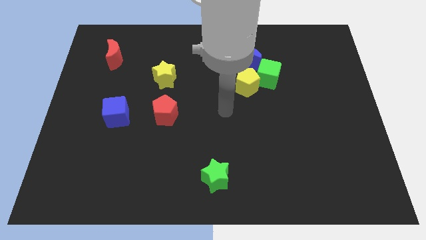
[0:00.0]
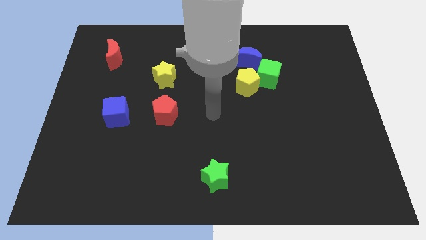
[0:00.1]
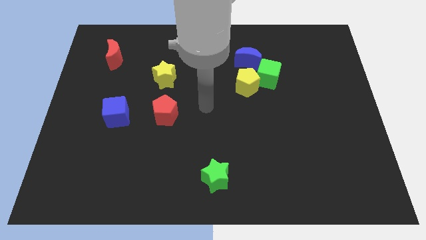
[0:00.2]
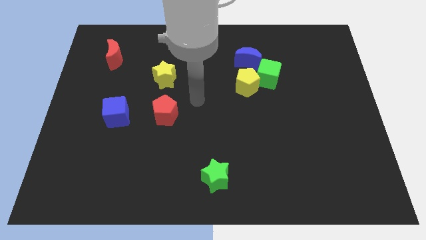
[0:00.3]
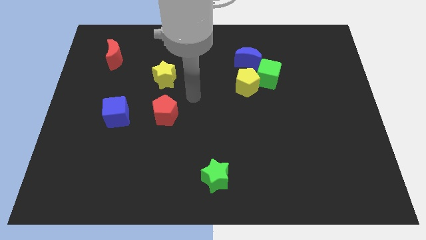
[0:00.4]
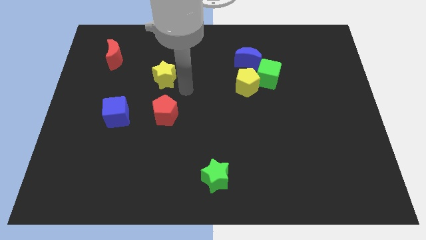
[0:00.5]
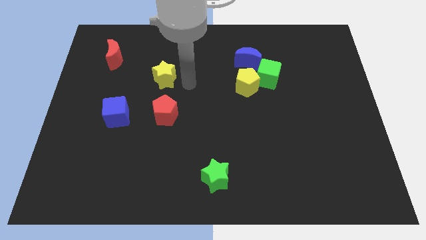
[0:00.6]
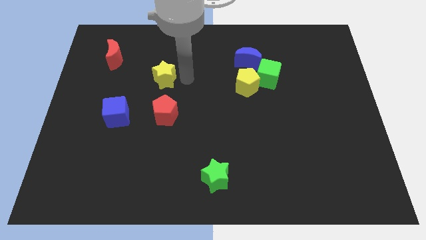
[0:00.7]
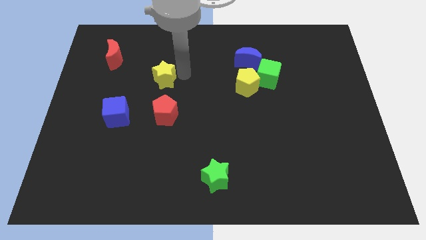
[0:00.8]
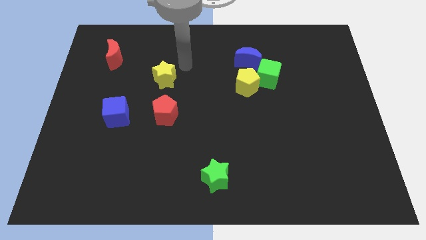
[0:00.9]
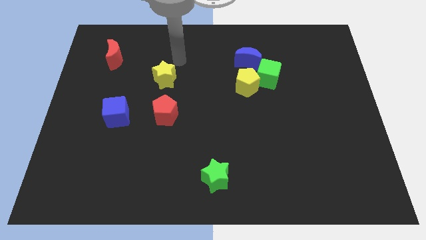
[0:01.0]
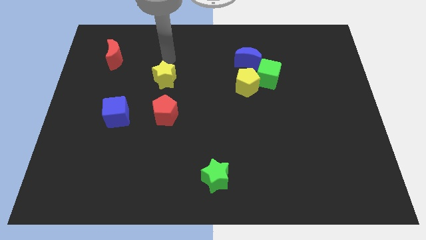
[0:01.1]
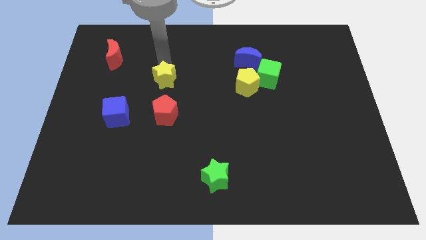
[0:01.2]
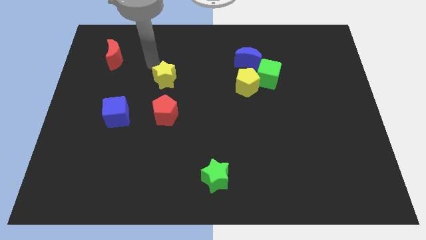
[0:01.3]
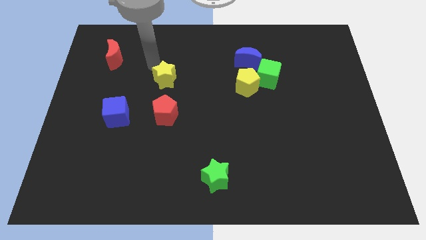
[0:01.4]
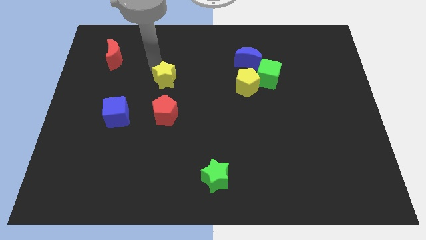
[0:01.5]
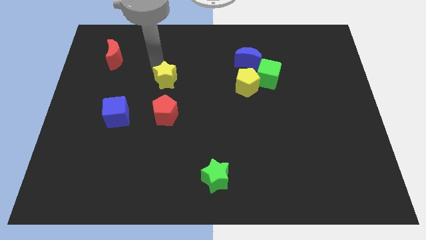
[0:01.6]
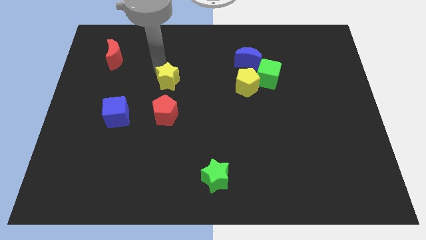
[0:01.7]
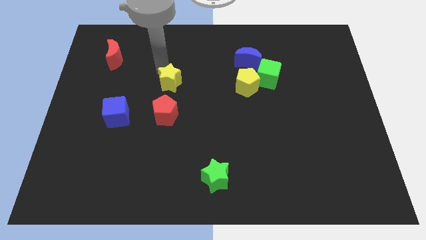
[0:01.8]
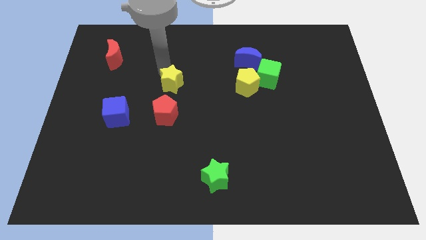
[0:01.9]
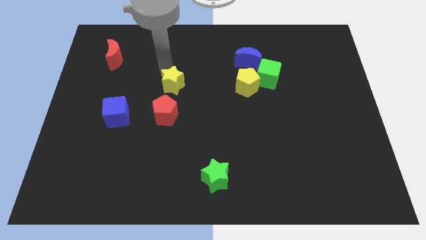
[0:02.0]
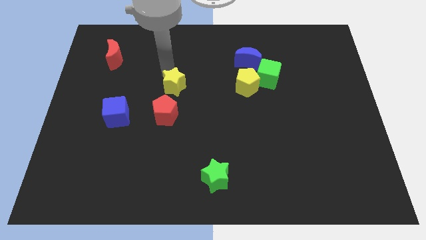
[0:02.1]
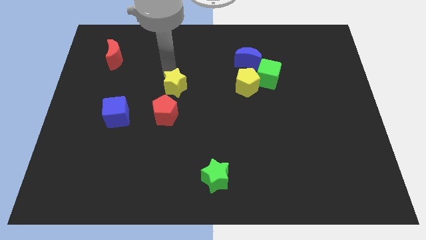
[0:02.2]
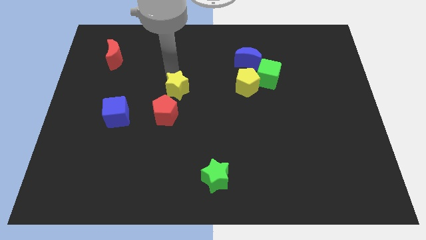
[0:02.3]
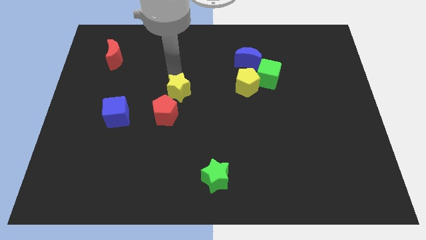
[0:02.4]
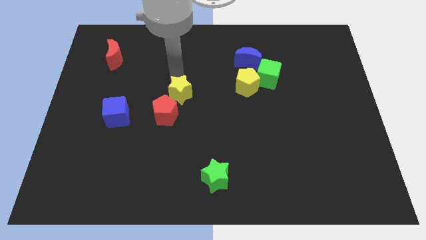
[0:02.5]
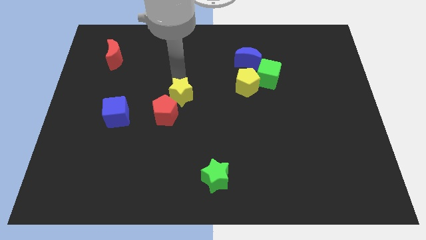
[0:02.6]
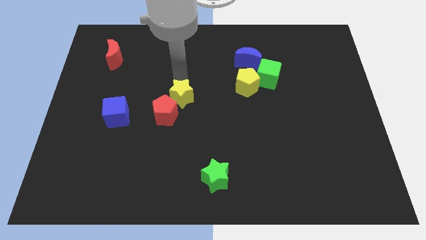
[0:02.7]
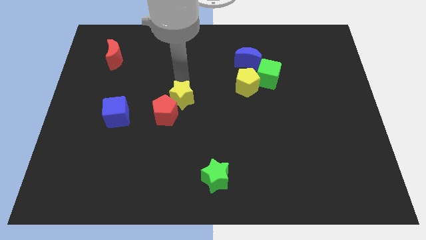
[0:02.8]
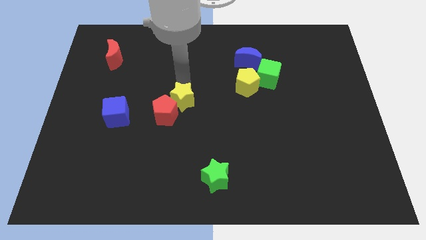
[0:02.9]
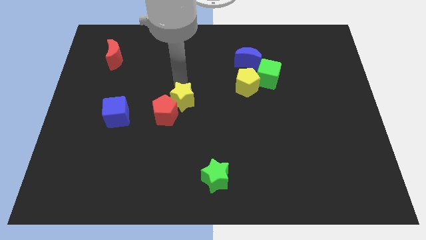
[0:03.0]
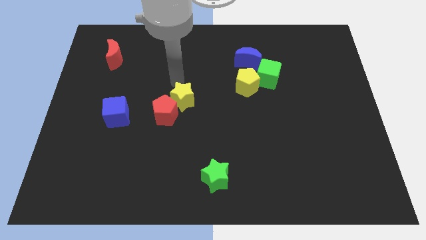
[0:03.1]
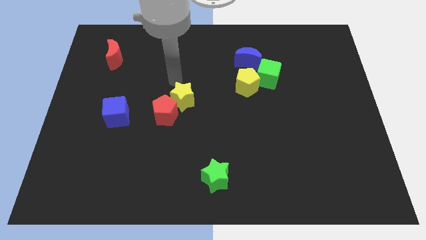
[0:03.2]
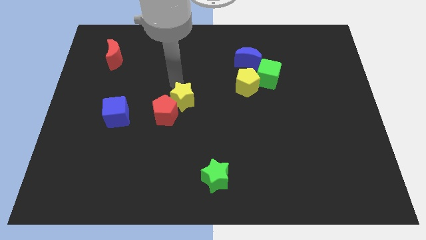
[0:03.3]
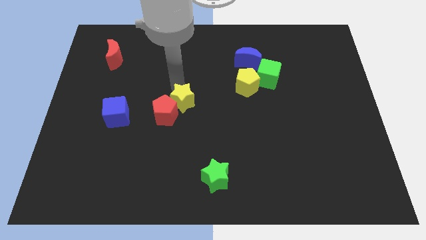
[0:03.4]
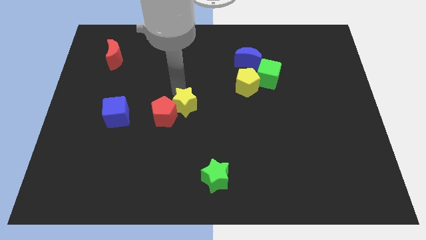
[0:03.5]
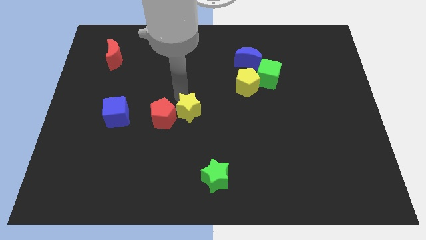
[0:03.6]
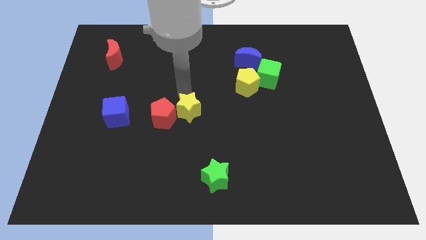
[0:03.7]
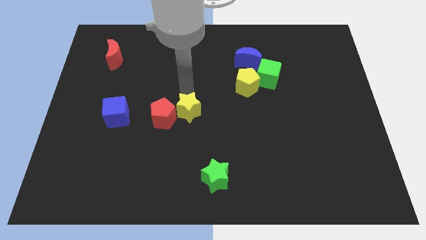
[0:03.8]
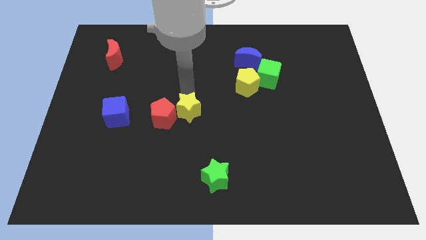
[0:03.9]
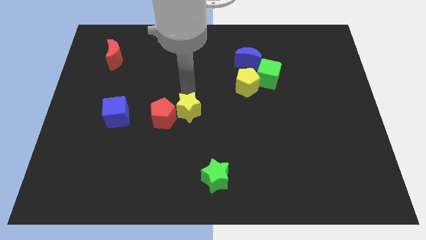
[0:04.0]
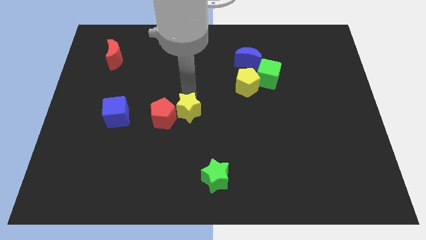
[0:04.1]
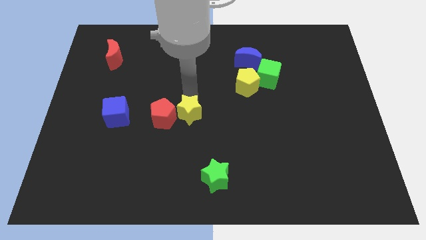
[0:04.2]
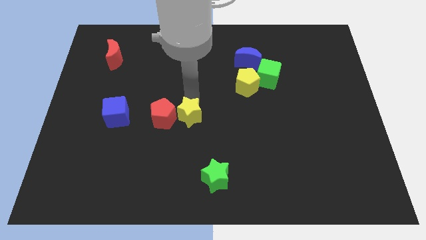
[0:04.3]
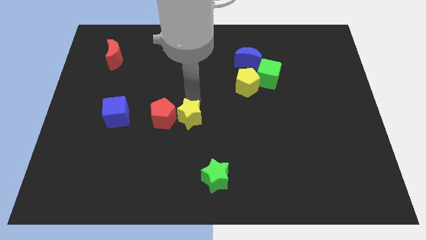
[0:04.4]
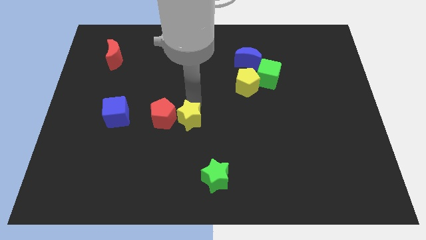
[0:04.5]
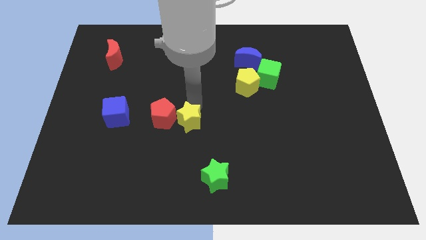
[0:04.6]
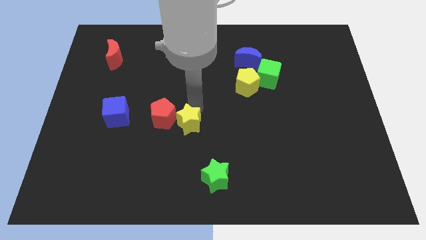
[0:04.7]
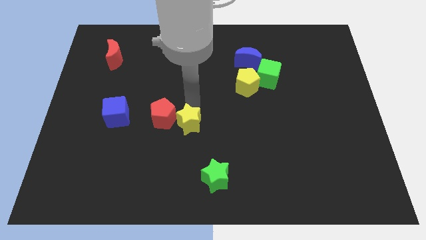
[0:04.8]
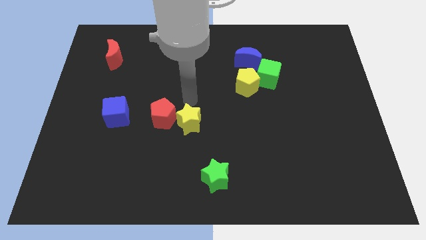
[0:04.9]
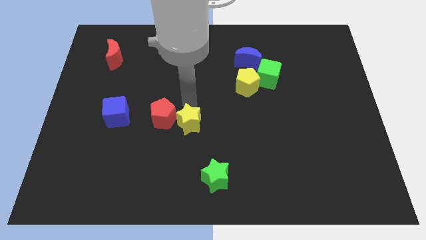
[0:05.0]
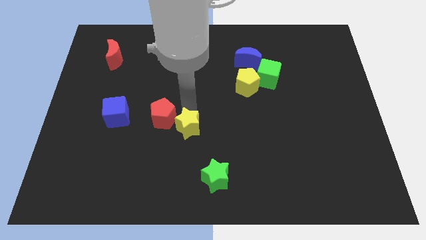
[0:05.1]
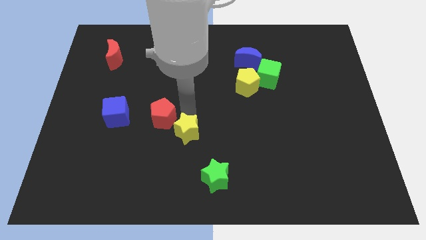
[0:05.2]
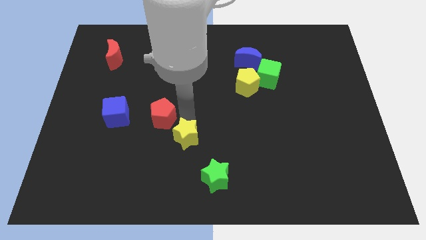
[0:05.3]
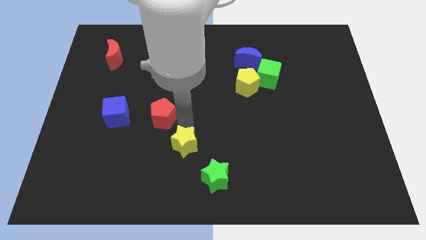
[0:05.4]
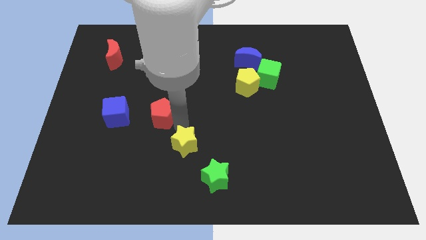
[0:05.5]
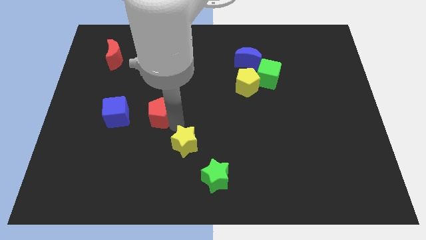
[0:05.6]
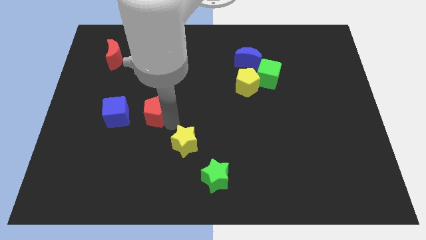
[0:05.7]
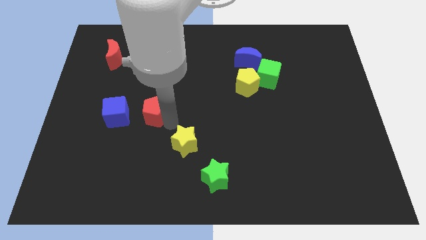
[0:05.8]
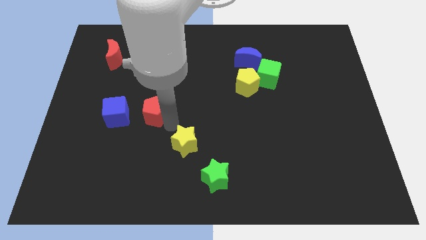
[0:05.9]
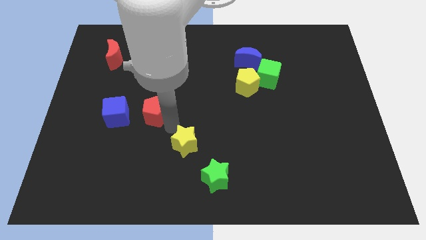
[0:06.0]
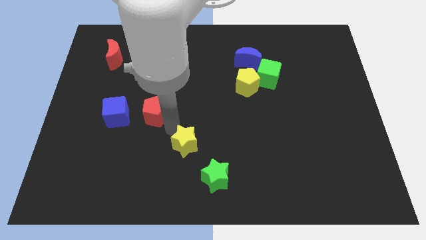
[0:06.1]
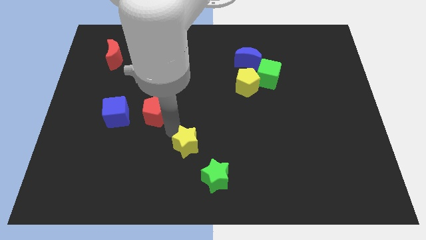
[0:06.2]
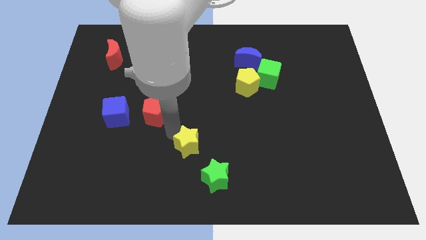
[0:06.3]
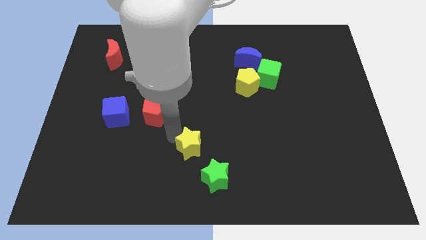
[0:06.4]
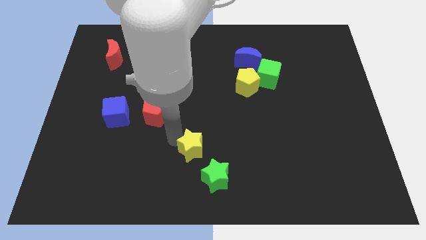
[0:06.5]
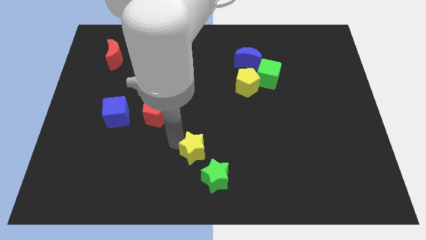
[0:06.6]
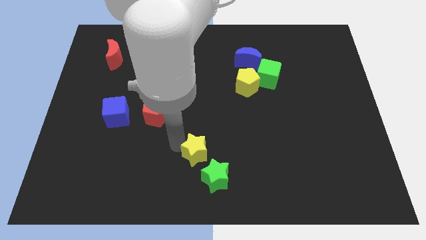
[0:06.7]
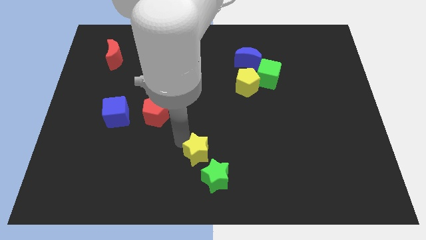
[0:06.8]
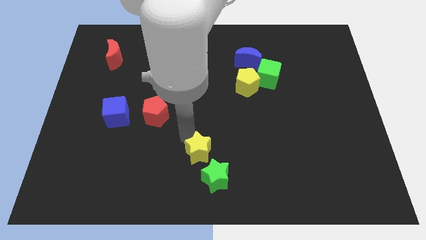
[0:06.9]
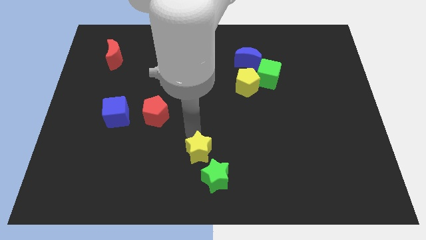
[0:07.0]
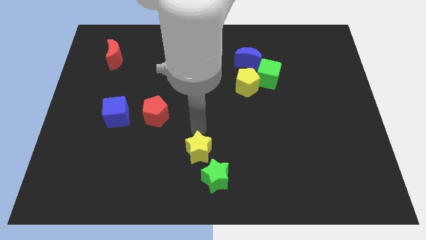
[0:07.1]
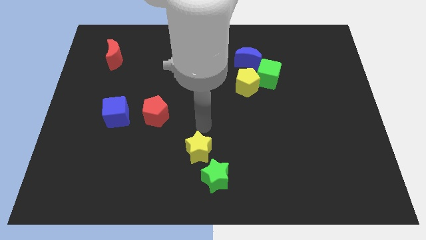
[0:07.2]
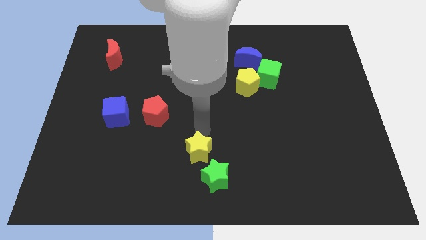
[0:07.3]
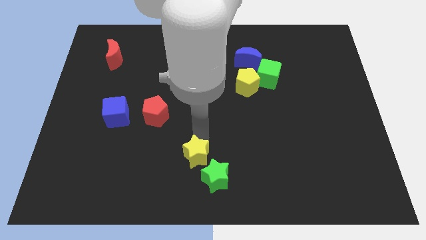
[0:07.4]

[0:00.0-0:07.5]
move the yellow star to the bottom

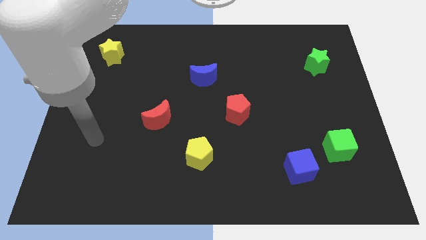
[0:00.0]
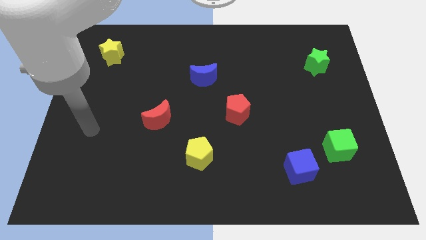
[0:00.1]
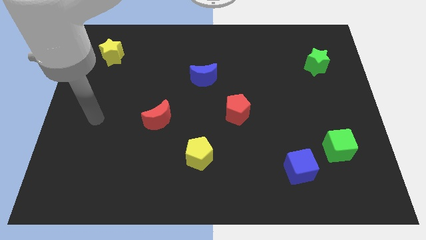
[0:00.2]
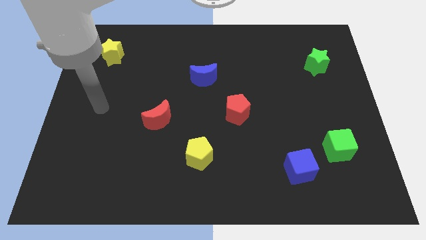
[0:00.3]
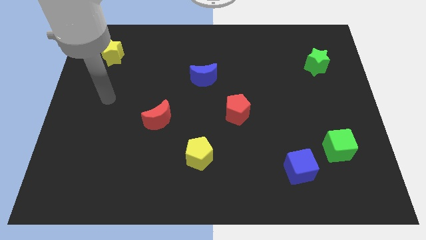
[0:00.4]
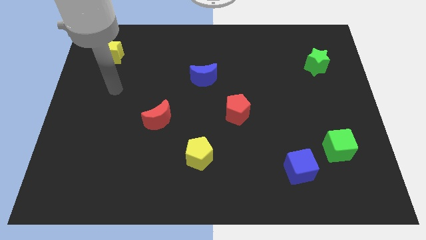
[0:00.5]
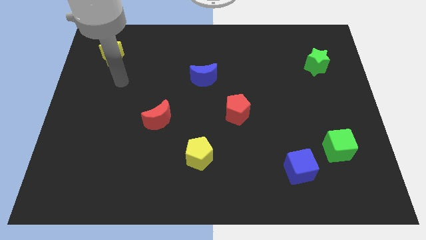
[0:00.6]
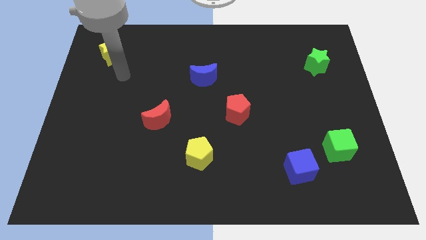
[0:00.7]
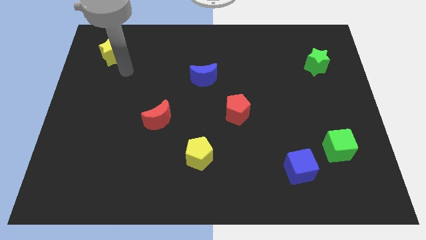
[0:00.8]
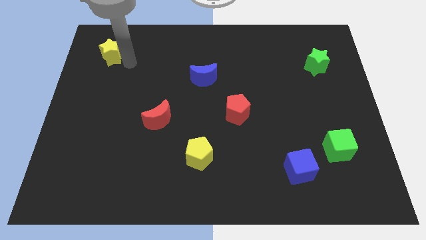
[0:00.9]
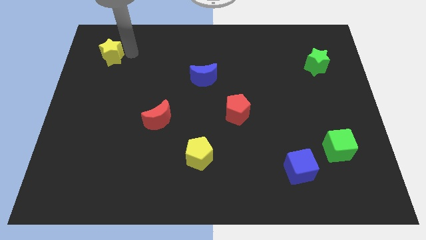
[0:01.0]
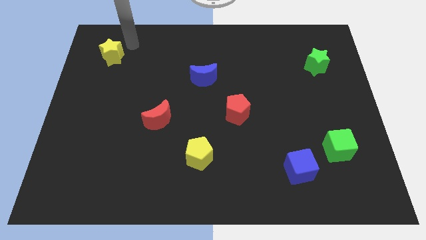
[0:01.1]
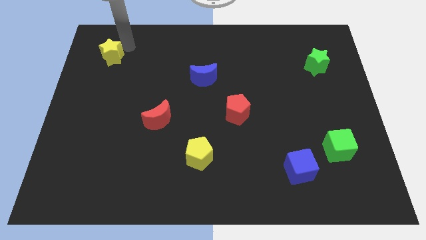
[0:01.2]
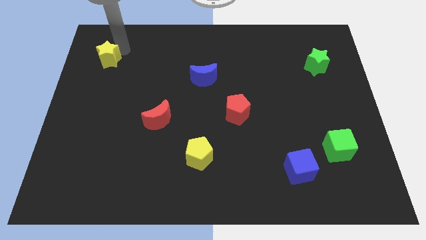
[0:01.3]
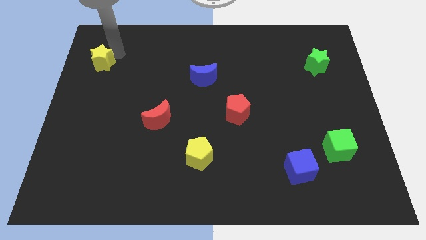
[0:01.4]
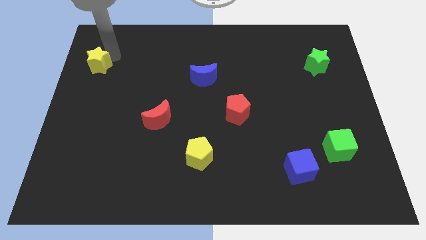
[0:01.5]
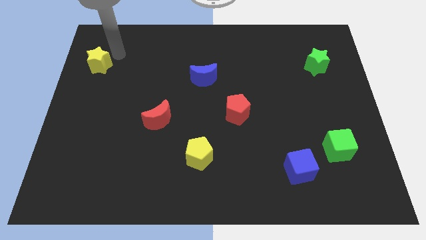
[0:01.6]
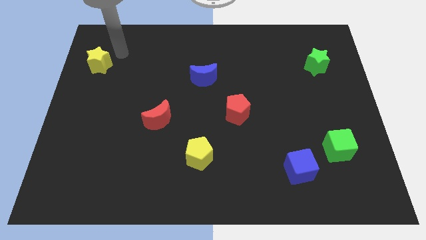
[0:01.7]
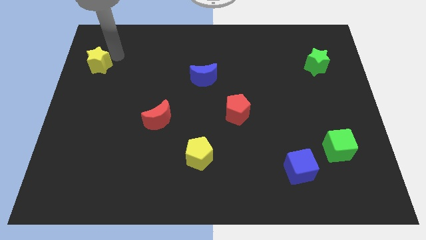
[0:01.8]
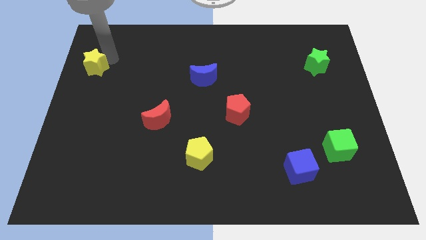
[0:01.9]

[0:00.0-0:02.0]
move the yellow star to the center left
